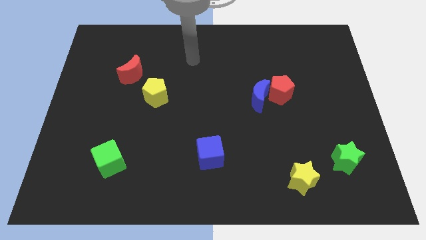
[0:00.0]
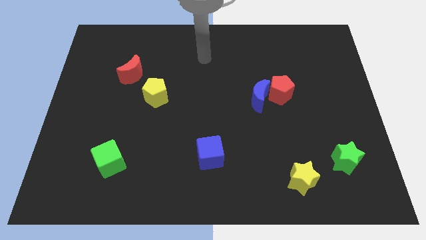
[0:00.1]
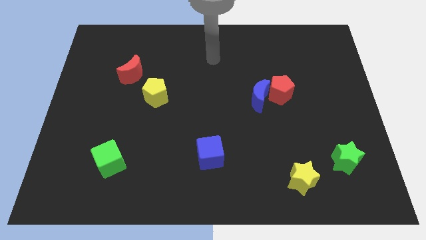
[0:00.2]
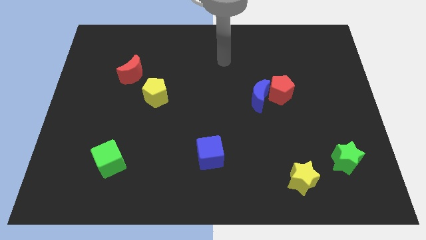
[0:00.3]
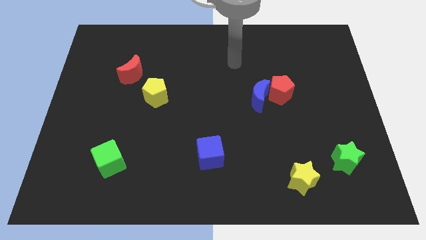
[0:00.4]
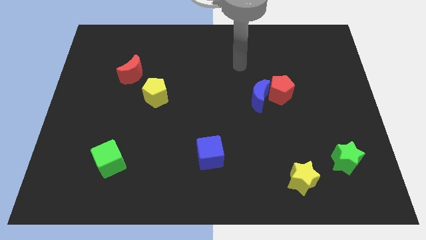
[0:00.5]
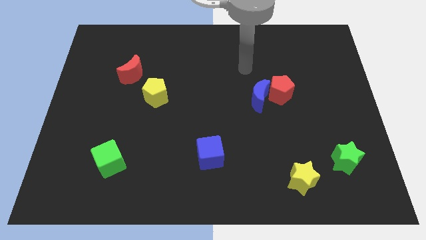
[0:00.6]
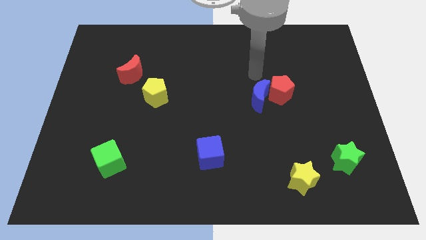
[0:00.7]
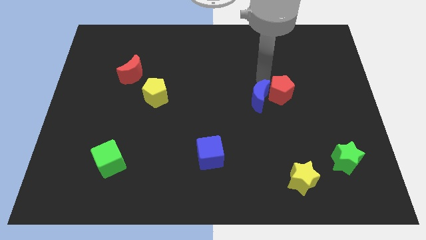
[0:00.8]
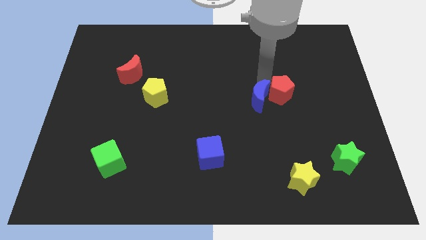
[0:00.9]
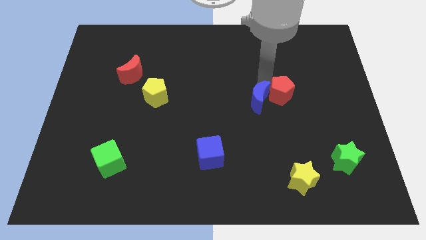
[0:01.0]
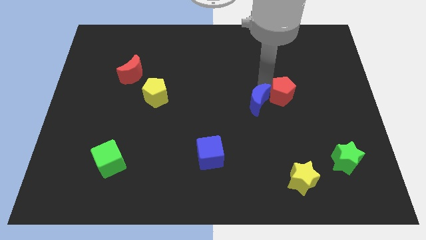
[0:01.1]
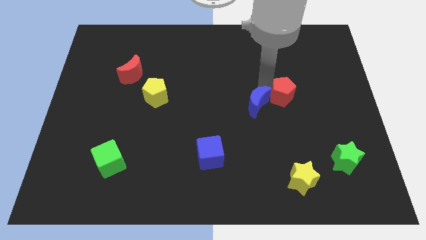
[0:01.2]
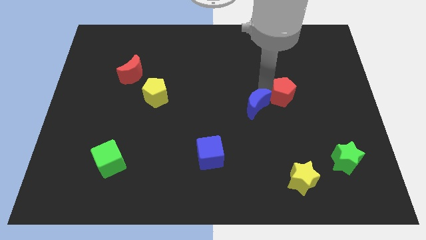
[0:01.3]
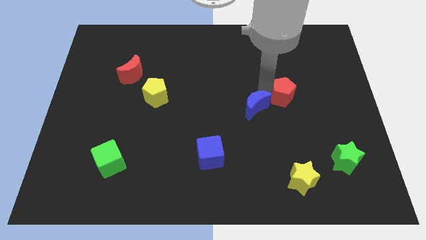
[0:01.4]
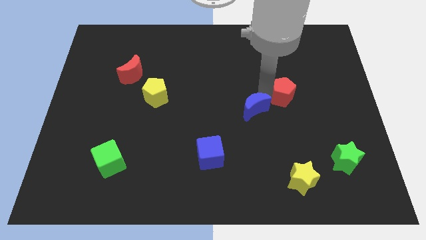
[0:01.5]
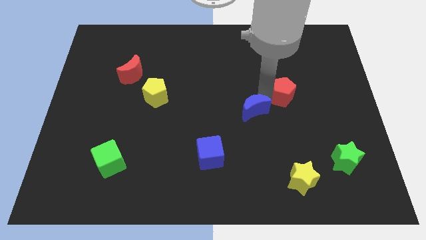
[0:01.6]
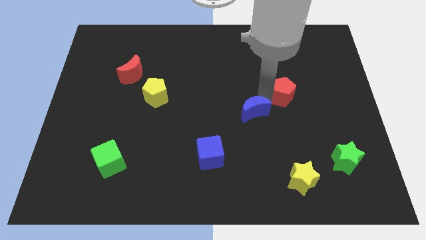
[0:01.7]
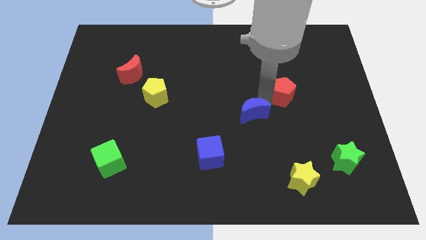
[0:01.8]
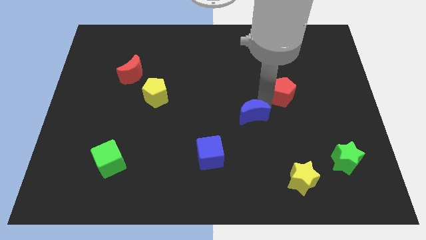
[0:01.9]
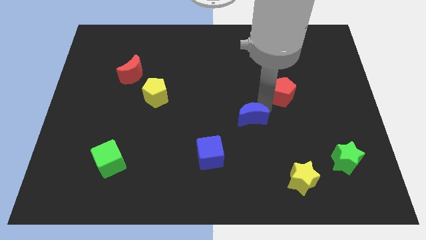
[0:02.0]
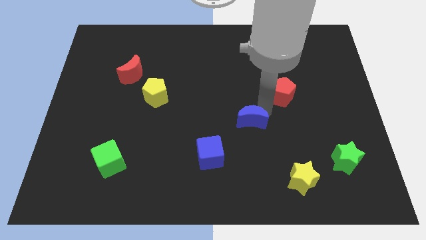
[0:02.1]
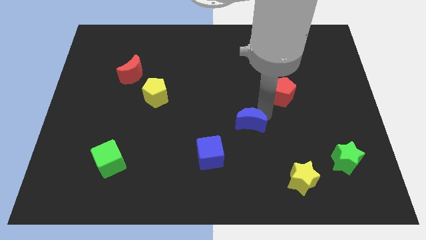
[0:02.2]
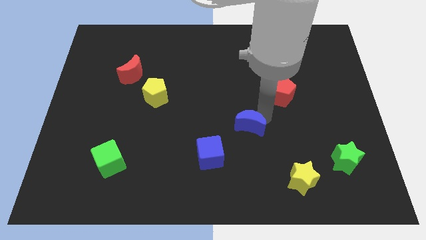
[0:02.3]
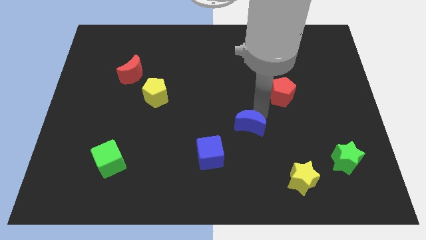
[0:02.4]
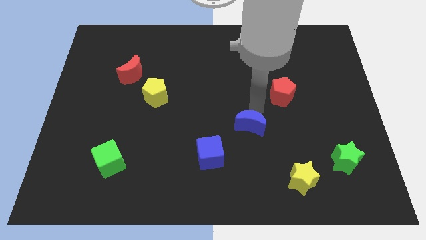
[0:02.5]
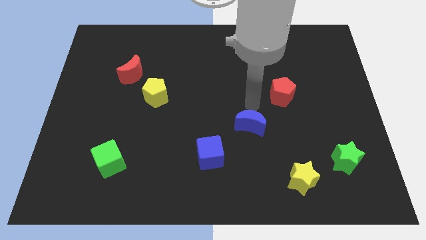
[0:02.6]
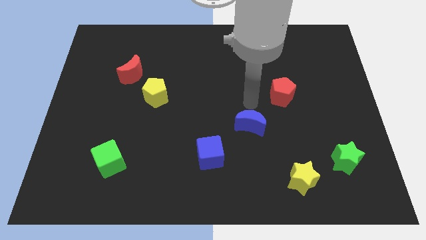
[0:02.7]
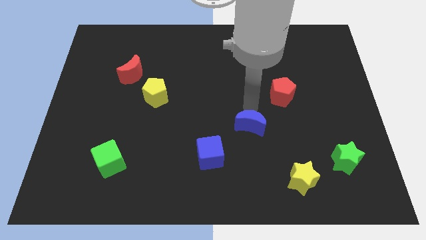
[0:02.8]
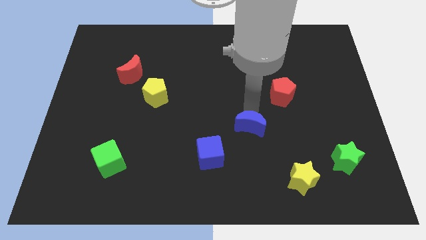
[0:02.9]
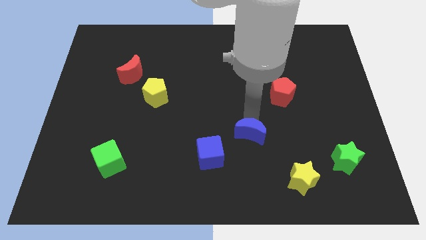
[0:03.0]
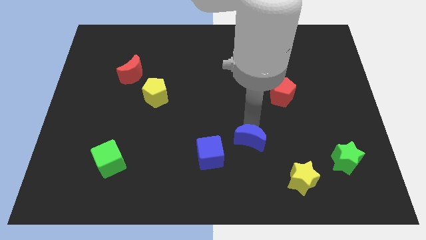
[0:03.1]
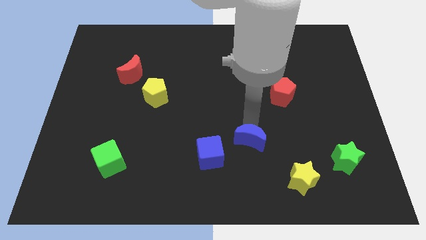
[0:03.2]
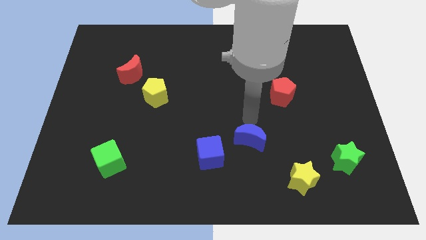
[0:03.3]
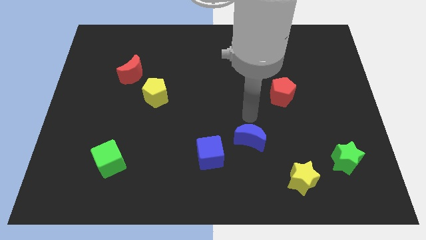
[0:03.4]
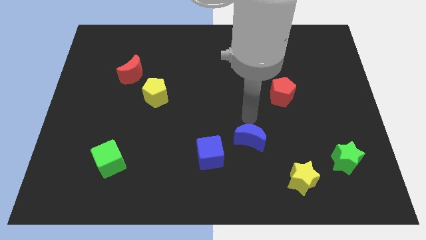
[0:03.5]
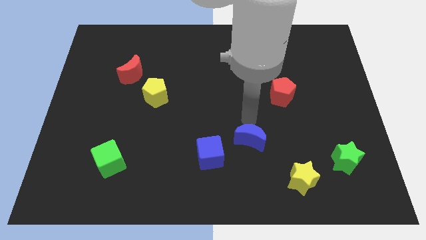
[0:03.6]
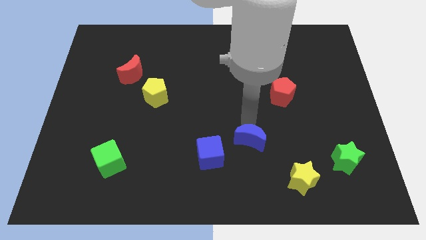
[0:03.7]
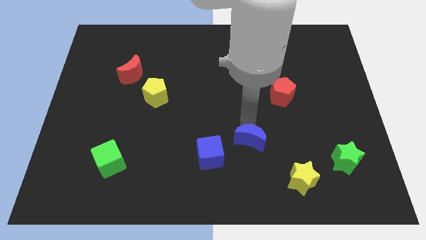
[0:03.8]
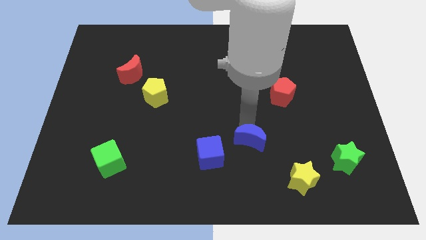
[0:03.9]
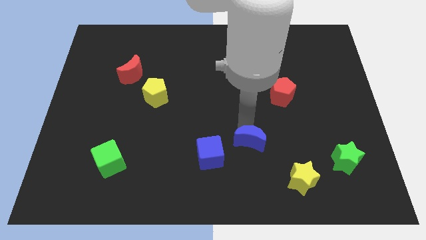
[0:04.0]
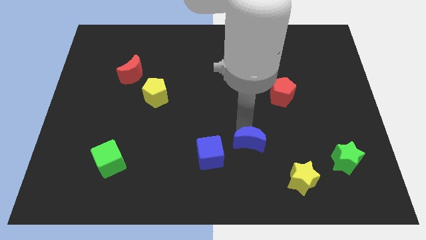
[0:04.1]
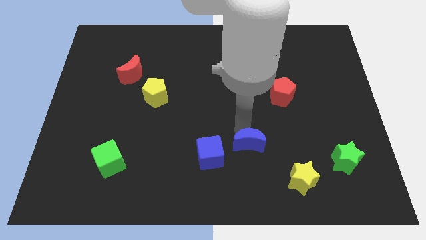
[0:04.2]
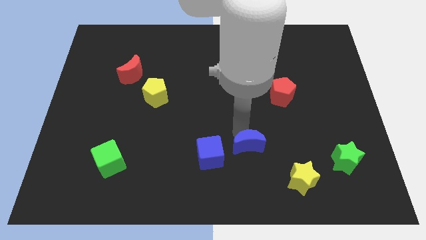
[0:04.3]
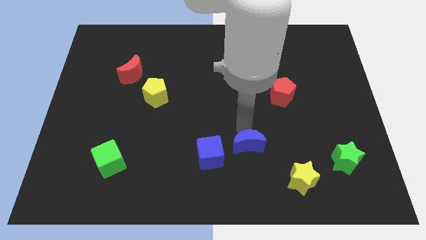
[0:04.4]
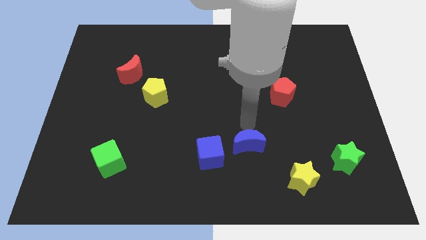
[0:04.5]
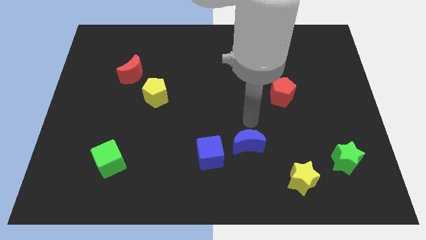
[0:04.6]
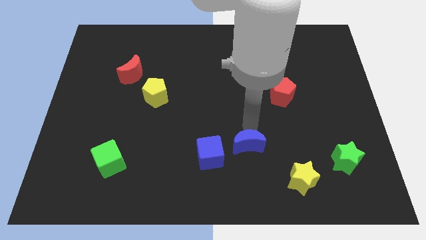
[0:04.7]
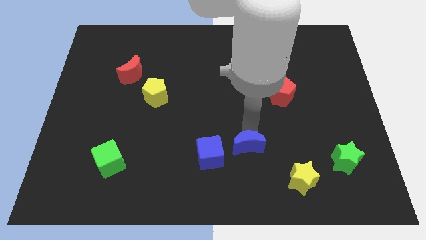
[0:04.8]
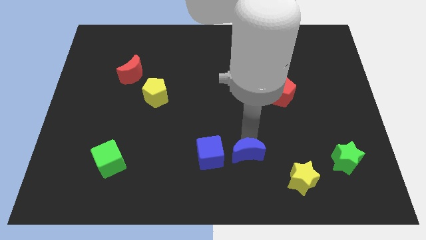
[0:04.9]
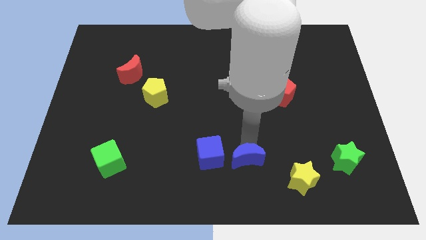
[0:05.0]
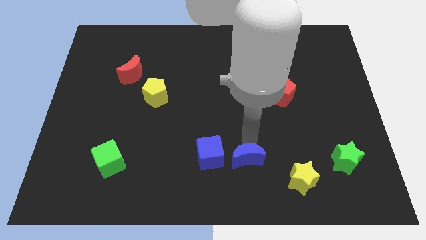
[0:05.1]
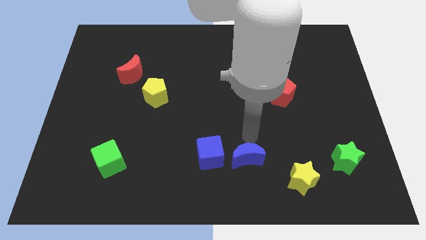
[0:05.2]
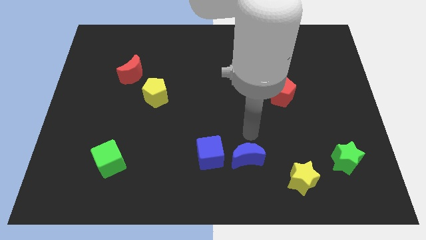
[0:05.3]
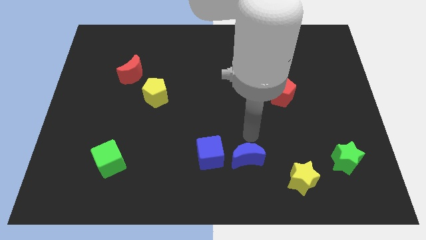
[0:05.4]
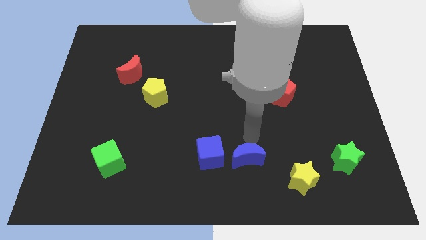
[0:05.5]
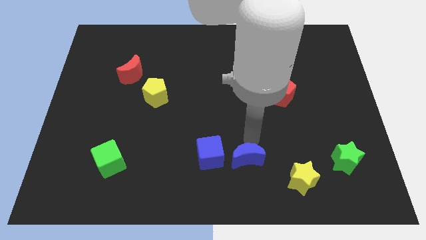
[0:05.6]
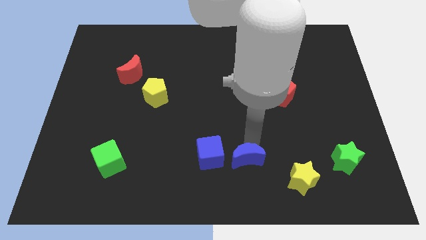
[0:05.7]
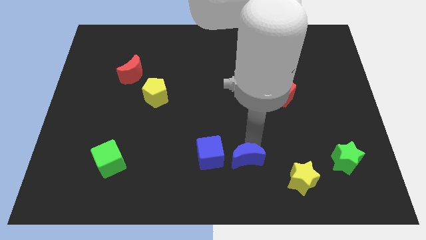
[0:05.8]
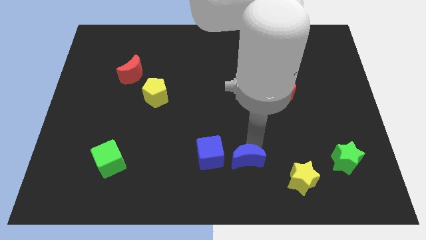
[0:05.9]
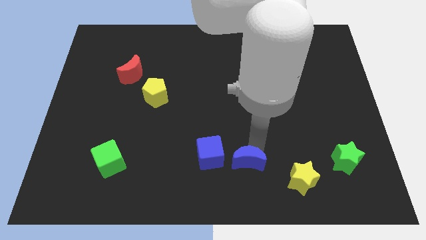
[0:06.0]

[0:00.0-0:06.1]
put the blue moon to the bottom side
